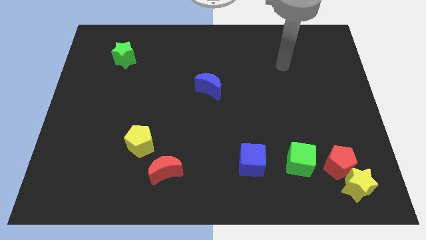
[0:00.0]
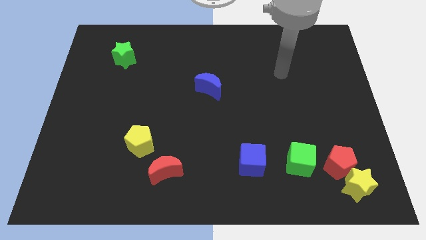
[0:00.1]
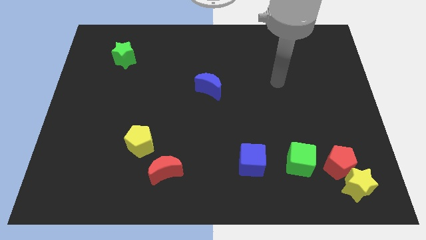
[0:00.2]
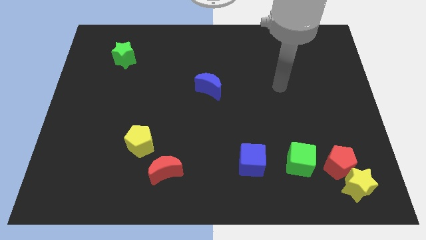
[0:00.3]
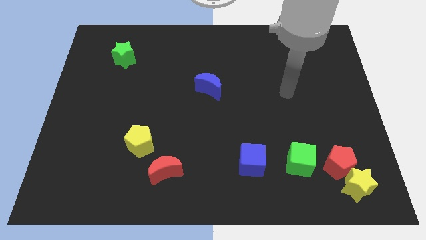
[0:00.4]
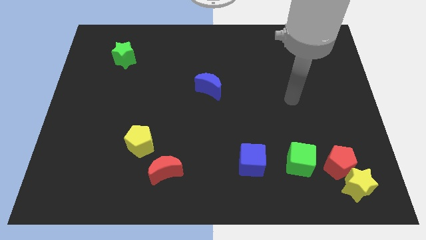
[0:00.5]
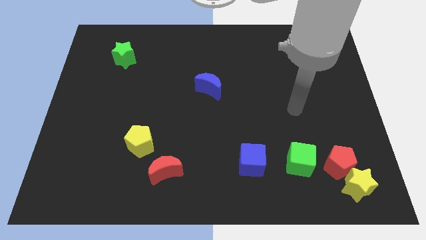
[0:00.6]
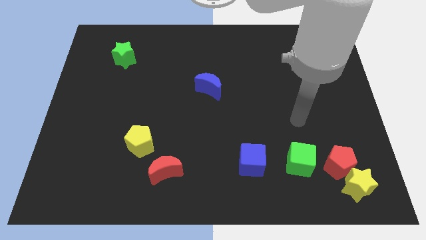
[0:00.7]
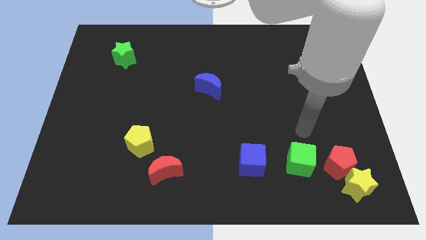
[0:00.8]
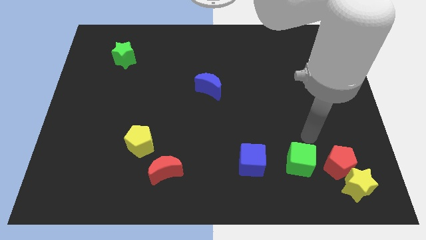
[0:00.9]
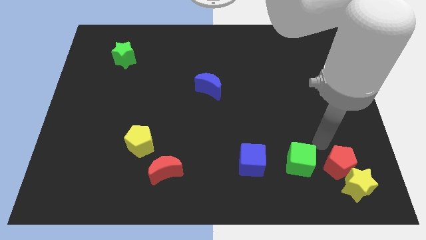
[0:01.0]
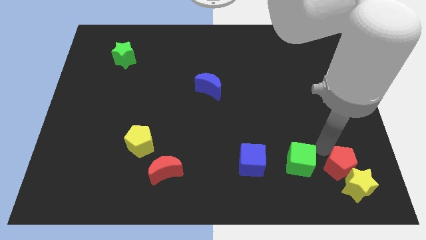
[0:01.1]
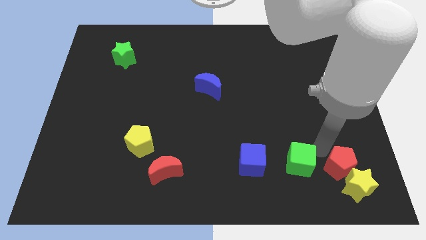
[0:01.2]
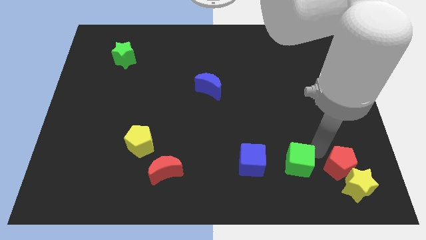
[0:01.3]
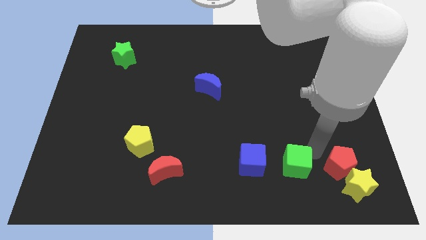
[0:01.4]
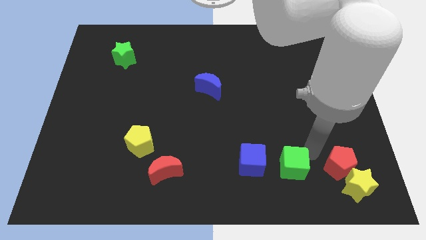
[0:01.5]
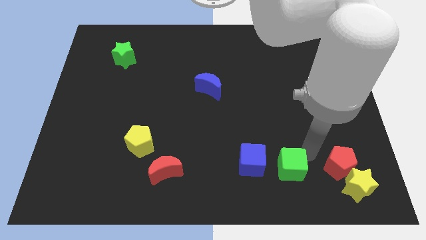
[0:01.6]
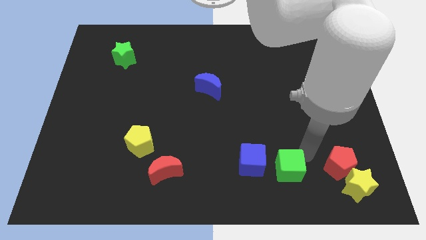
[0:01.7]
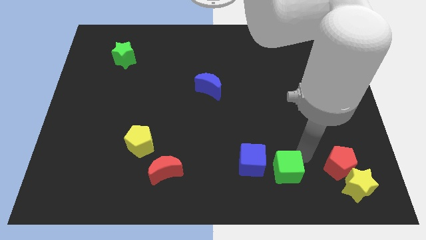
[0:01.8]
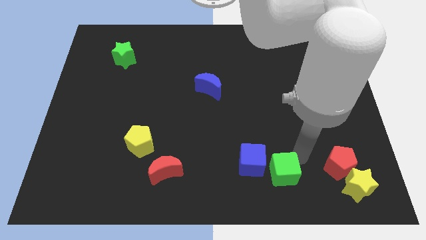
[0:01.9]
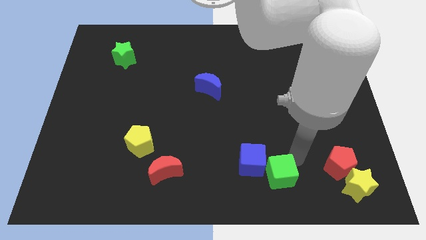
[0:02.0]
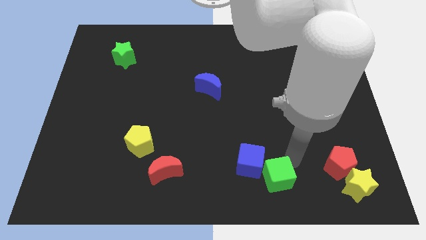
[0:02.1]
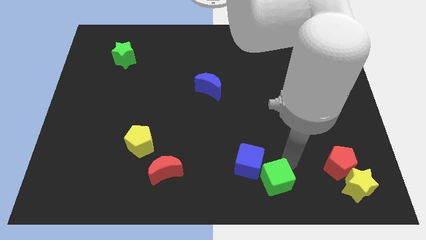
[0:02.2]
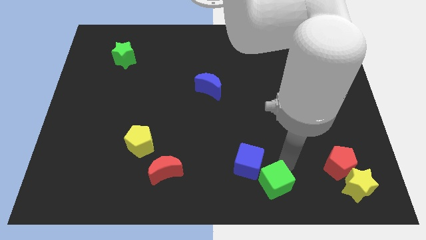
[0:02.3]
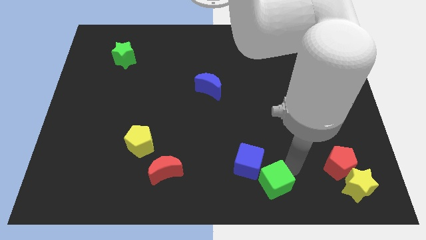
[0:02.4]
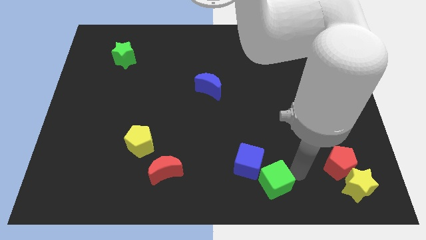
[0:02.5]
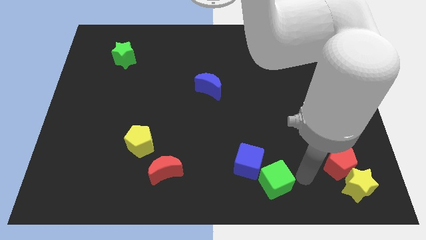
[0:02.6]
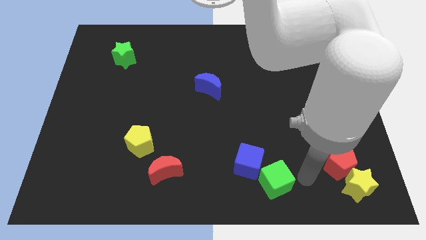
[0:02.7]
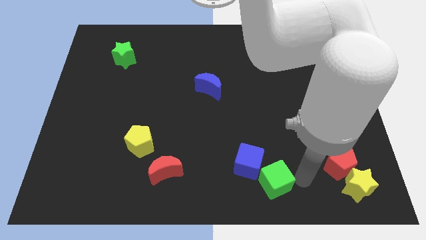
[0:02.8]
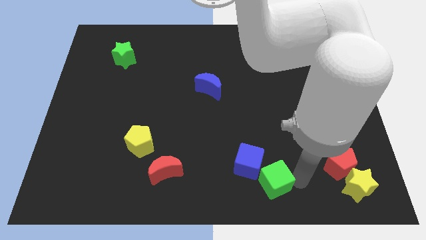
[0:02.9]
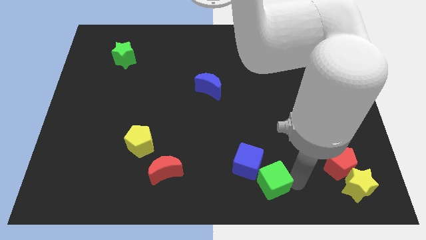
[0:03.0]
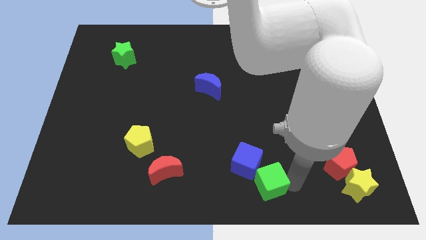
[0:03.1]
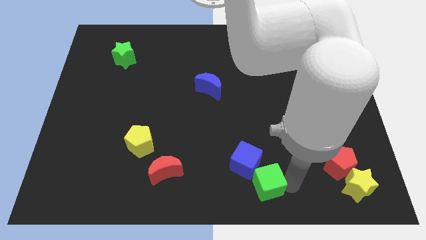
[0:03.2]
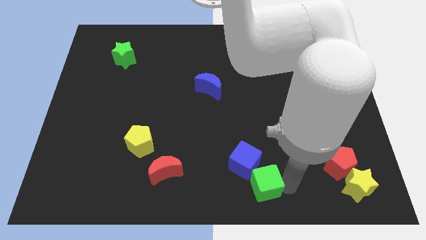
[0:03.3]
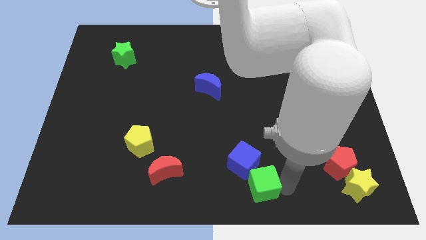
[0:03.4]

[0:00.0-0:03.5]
slide the green cube slightly left

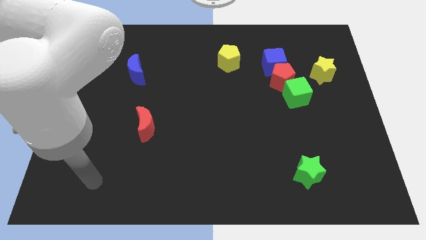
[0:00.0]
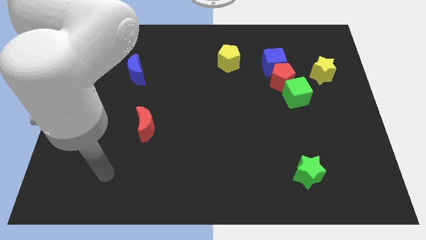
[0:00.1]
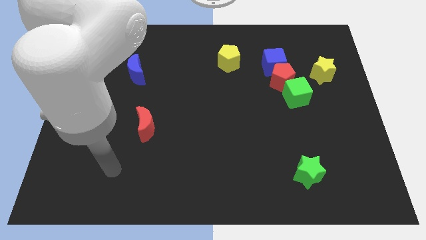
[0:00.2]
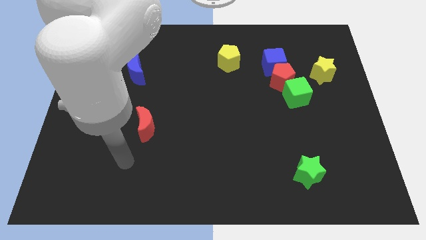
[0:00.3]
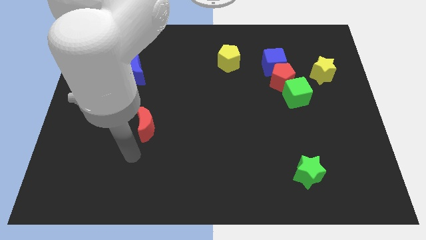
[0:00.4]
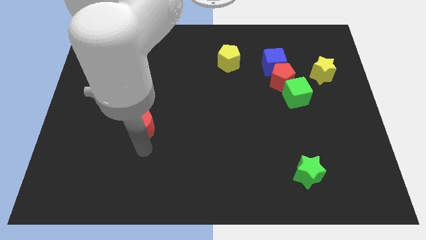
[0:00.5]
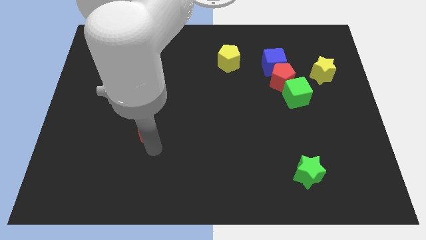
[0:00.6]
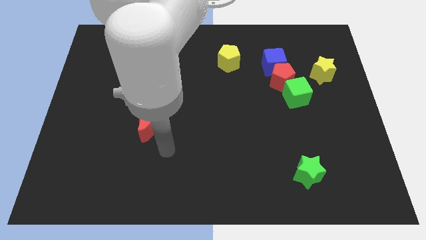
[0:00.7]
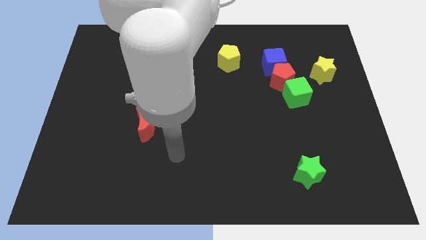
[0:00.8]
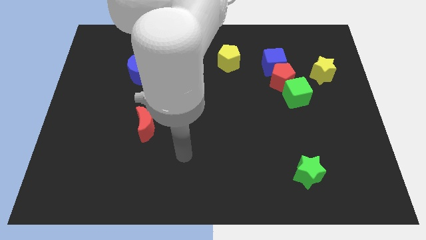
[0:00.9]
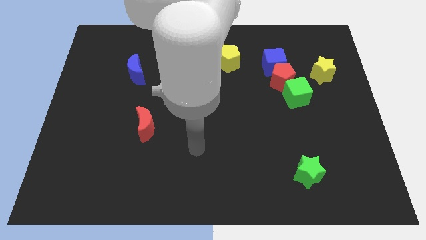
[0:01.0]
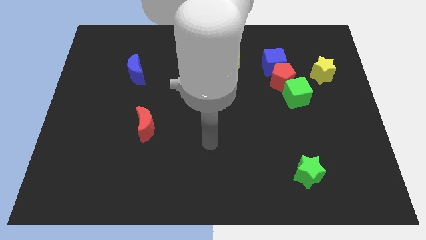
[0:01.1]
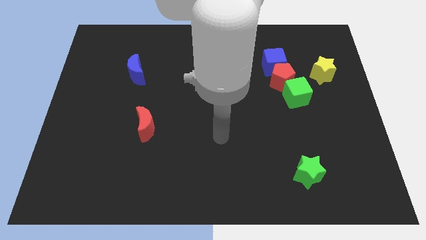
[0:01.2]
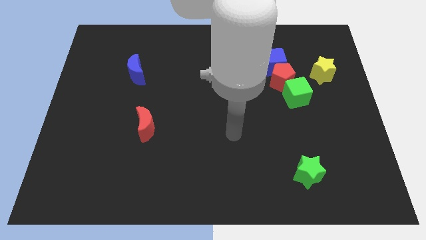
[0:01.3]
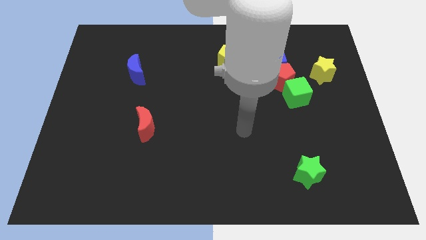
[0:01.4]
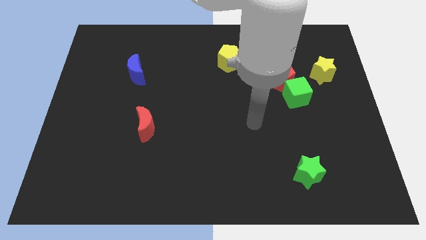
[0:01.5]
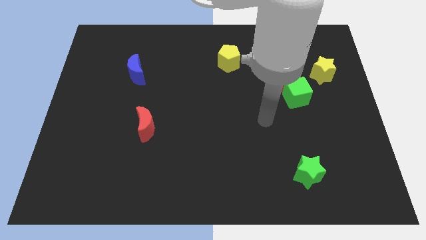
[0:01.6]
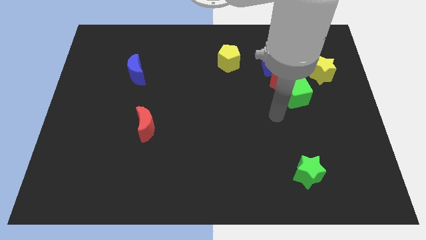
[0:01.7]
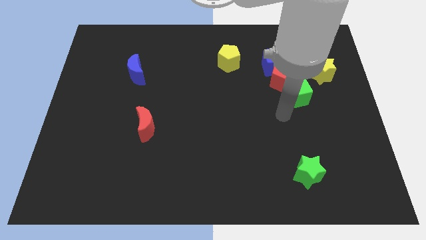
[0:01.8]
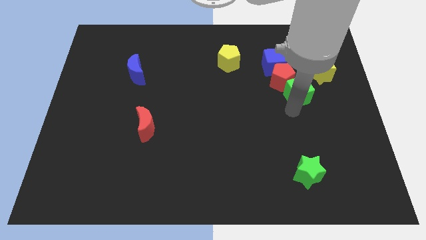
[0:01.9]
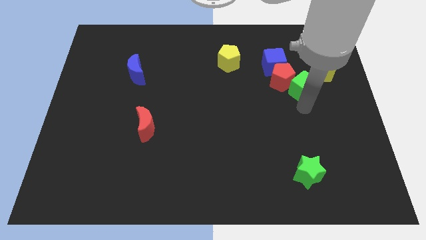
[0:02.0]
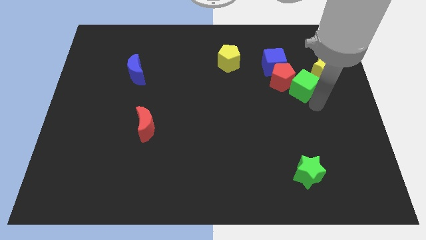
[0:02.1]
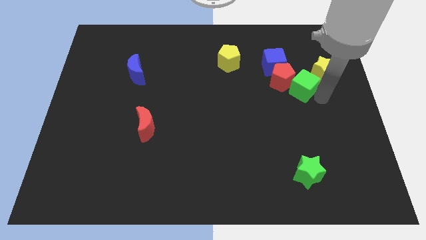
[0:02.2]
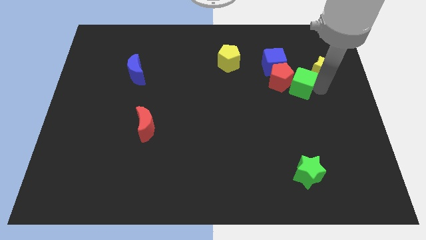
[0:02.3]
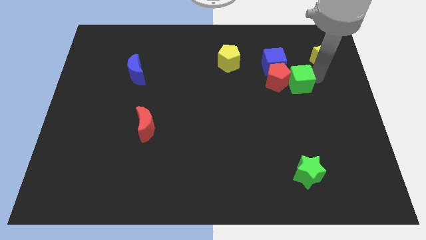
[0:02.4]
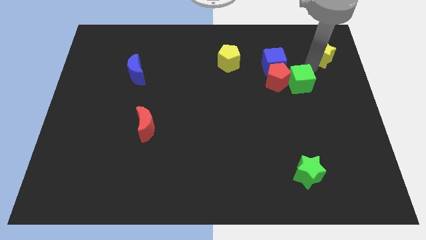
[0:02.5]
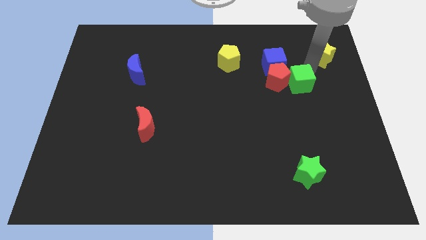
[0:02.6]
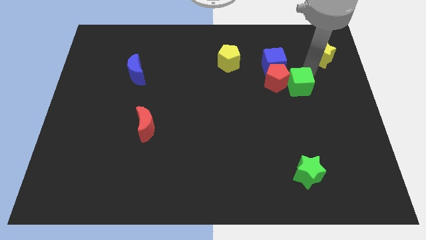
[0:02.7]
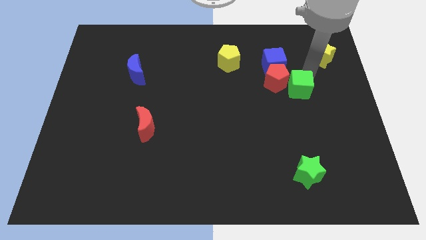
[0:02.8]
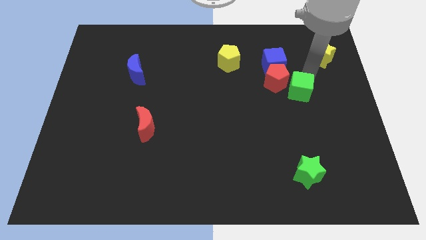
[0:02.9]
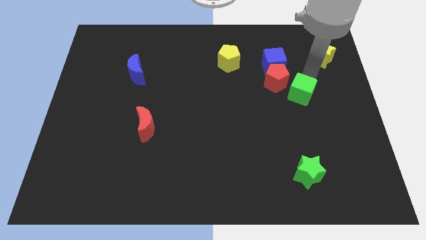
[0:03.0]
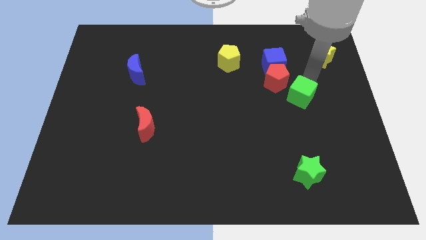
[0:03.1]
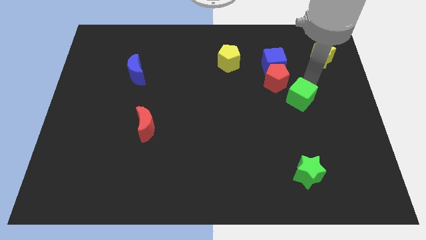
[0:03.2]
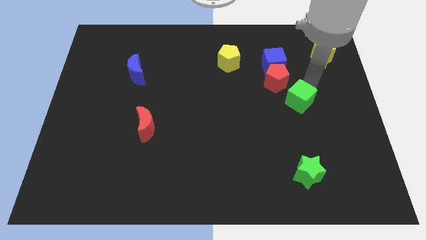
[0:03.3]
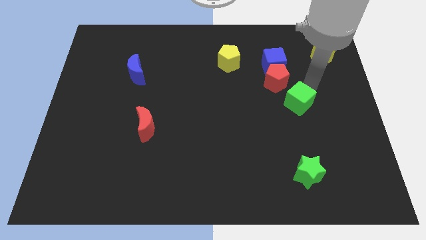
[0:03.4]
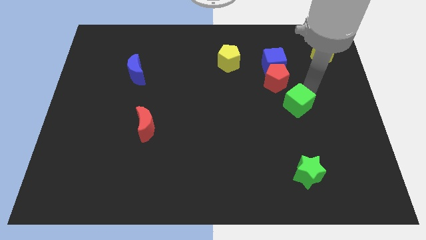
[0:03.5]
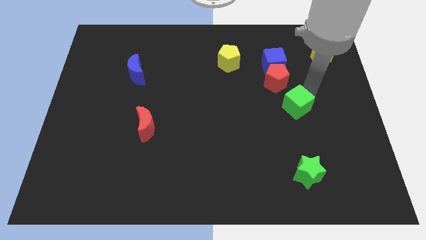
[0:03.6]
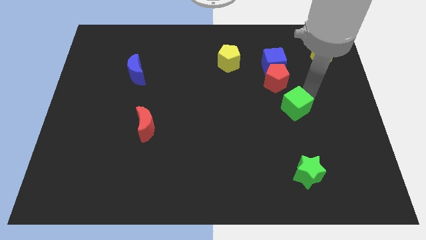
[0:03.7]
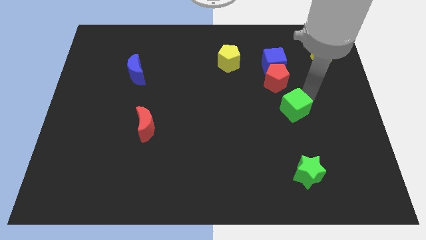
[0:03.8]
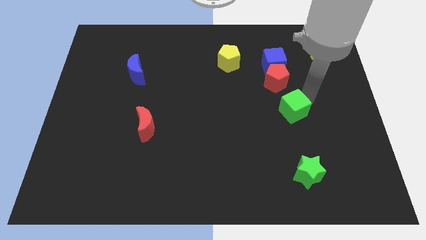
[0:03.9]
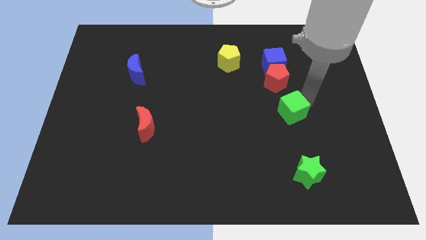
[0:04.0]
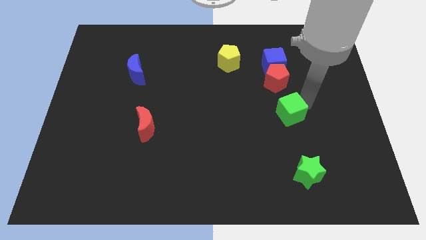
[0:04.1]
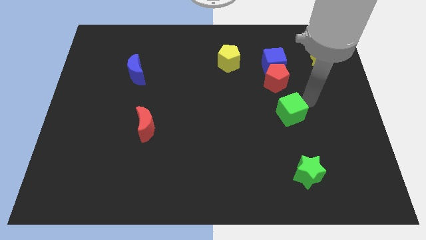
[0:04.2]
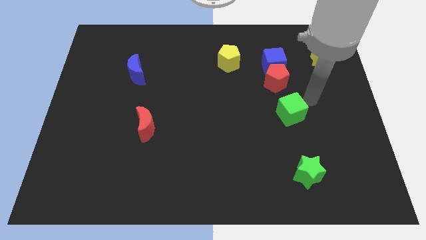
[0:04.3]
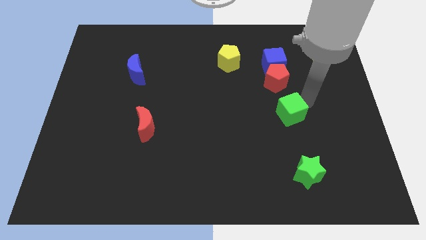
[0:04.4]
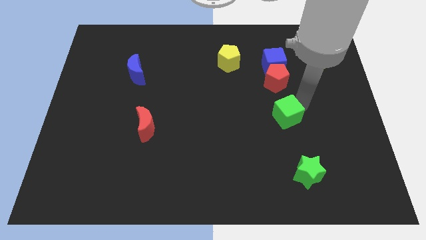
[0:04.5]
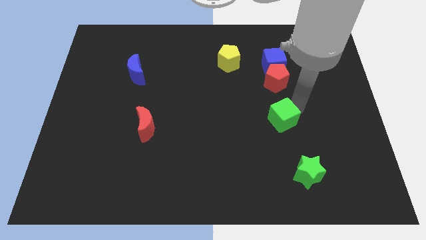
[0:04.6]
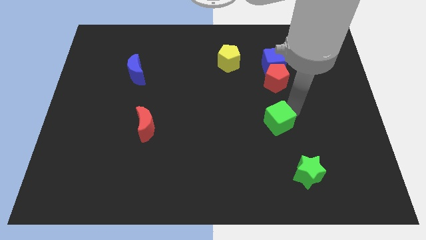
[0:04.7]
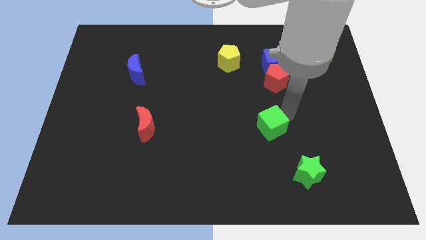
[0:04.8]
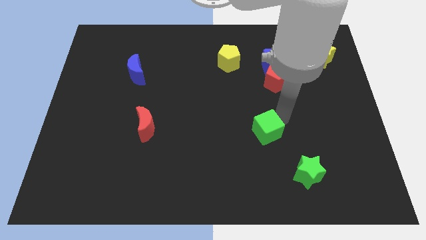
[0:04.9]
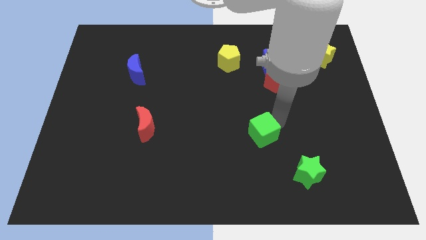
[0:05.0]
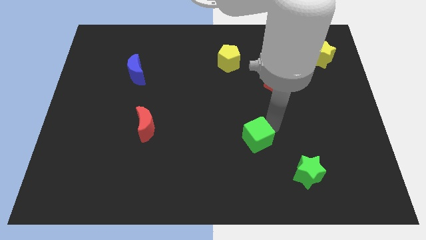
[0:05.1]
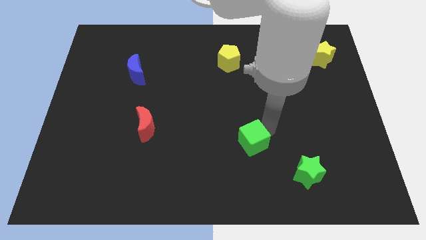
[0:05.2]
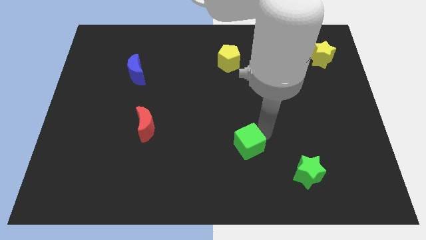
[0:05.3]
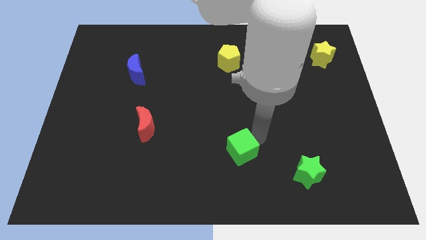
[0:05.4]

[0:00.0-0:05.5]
push the green cube downwards and left diagonally
